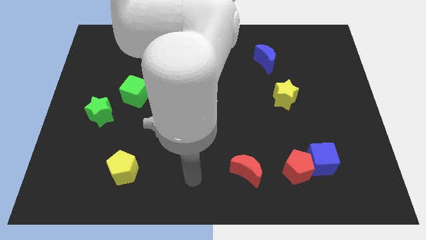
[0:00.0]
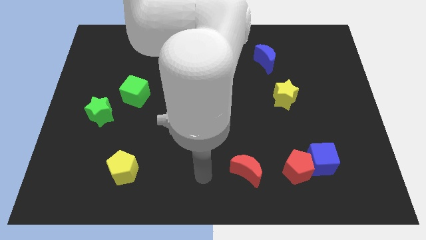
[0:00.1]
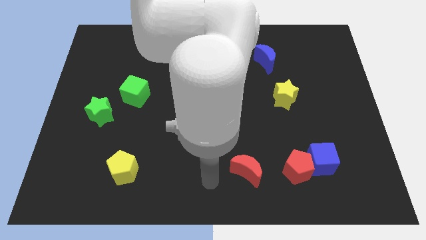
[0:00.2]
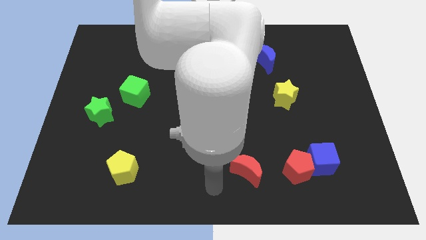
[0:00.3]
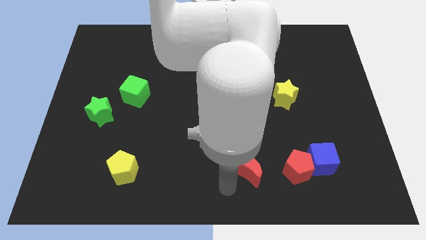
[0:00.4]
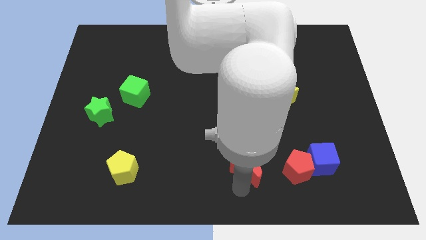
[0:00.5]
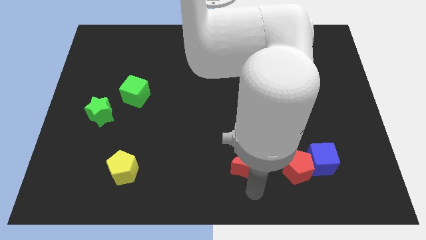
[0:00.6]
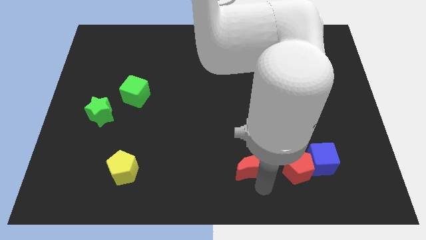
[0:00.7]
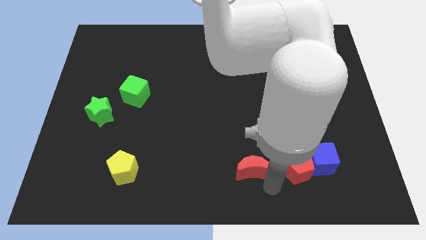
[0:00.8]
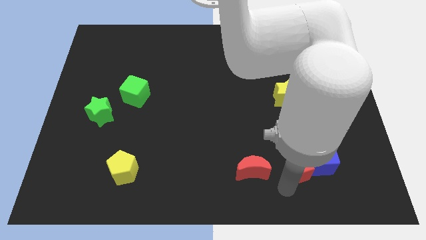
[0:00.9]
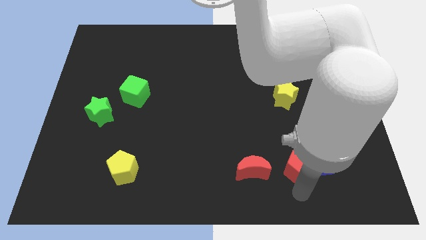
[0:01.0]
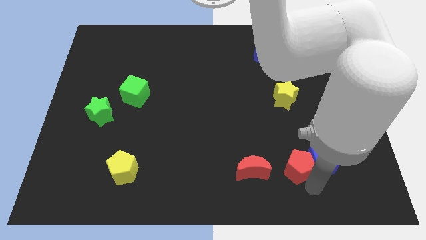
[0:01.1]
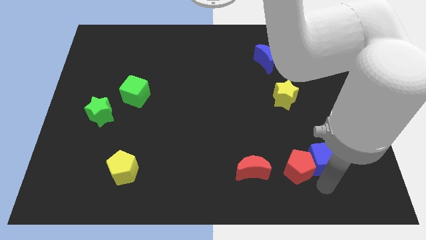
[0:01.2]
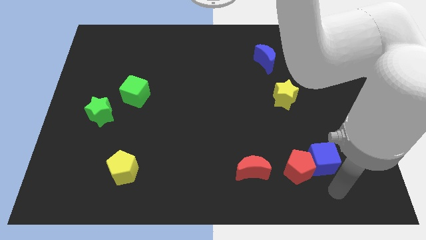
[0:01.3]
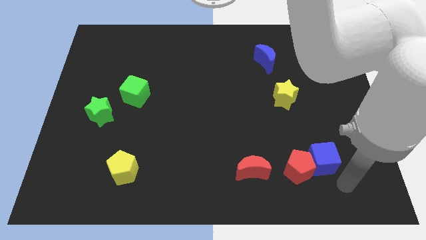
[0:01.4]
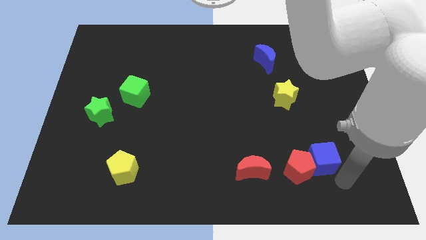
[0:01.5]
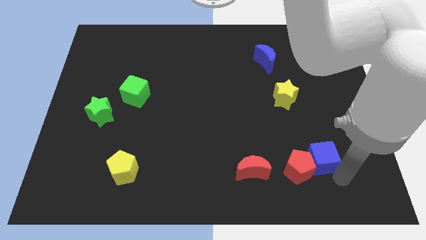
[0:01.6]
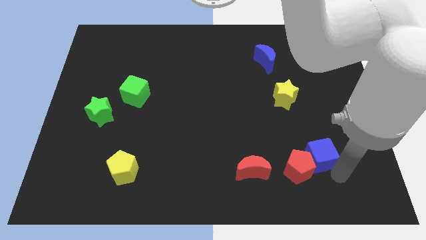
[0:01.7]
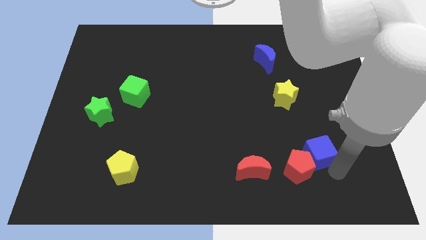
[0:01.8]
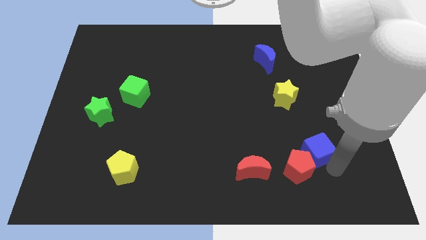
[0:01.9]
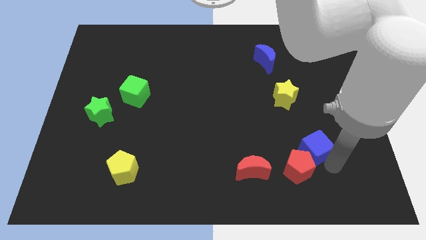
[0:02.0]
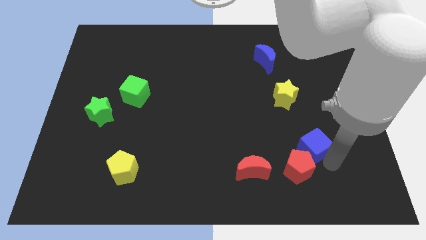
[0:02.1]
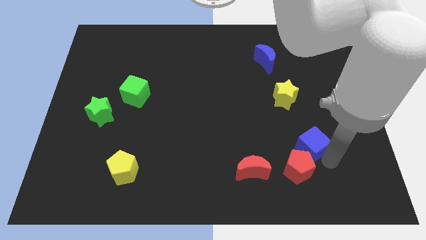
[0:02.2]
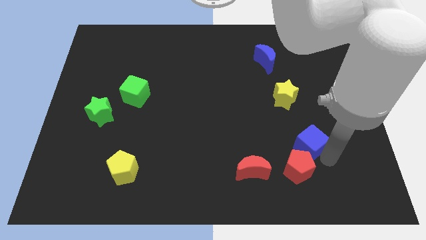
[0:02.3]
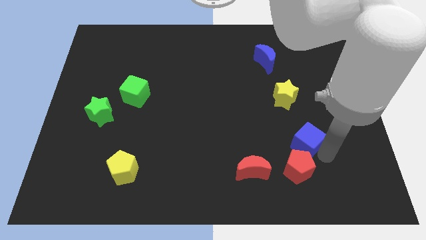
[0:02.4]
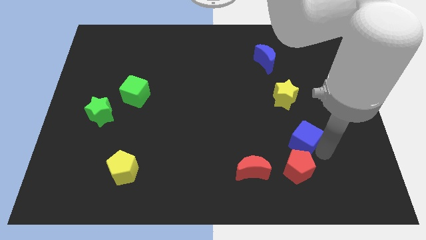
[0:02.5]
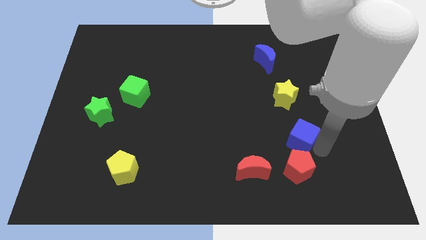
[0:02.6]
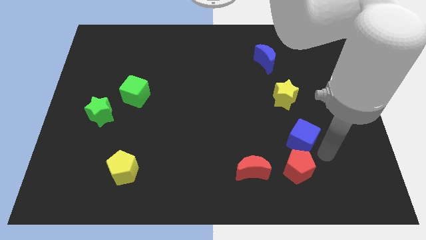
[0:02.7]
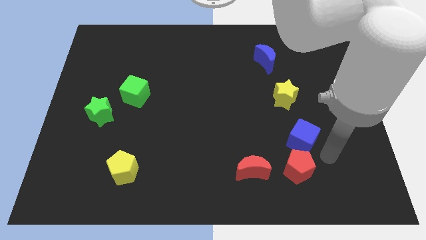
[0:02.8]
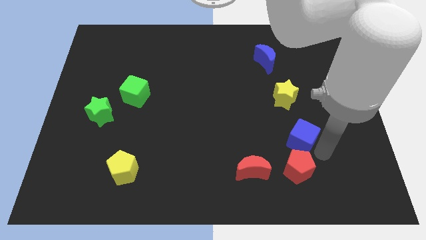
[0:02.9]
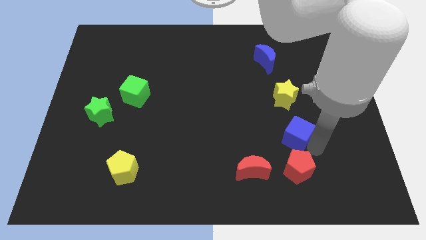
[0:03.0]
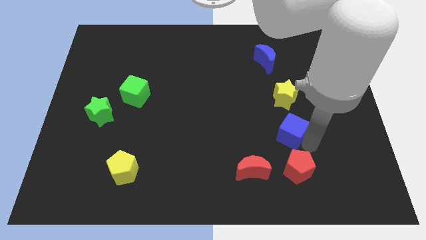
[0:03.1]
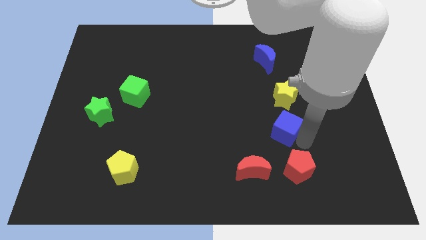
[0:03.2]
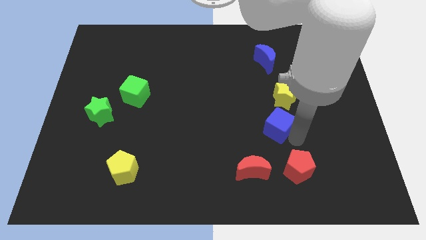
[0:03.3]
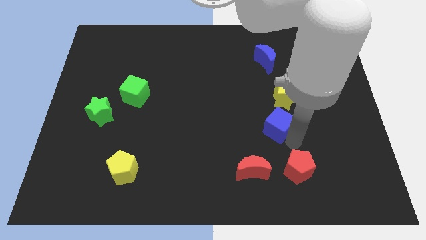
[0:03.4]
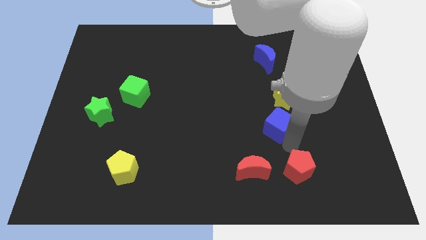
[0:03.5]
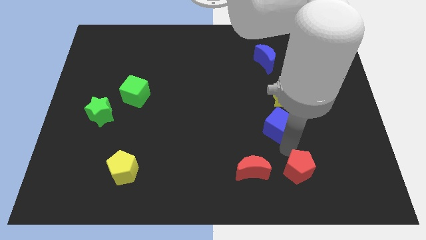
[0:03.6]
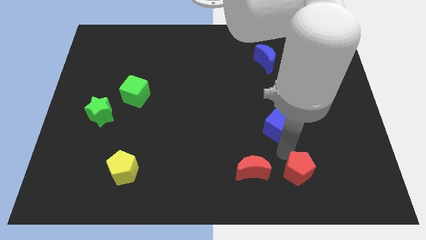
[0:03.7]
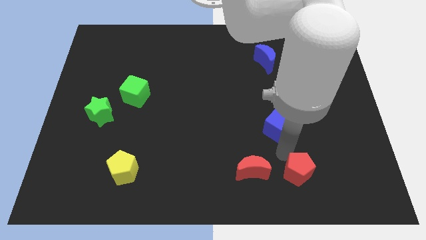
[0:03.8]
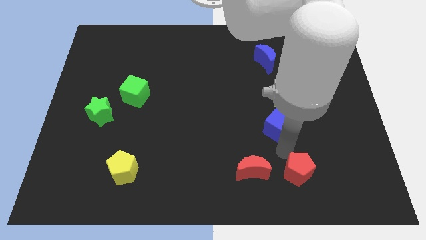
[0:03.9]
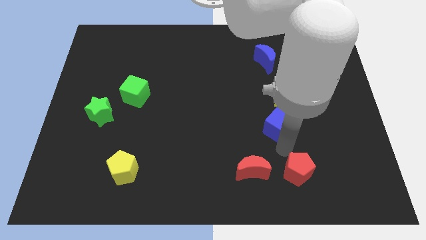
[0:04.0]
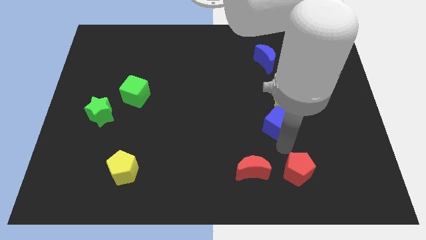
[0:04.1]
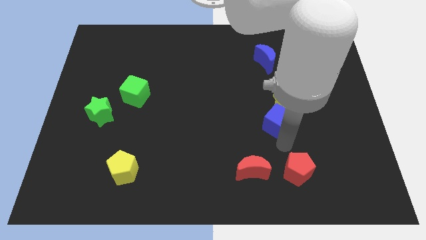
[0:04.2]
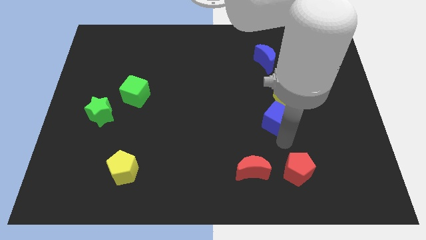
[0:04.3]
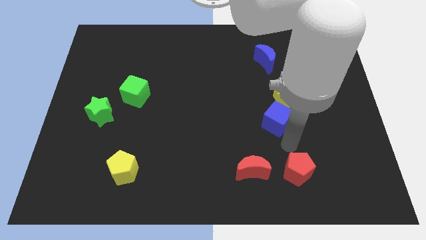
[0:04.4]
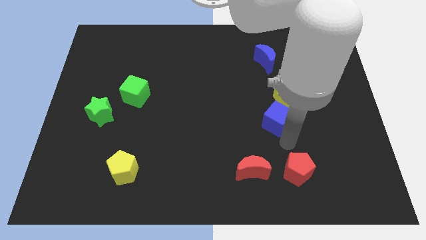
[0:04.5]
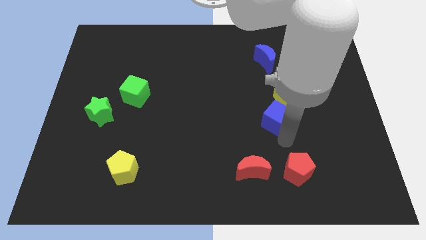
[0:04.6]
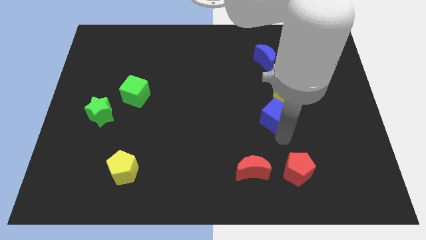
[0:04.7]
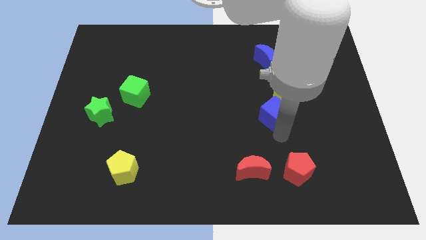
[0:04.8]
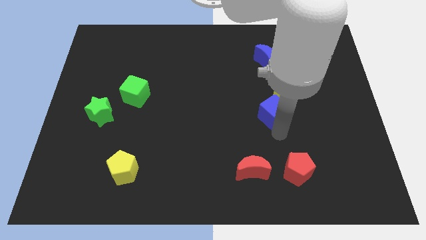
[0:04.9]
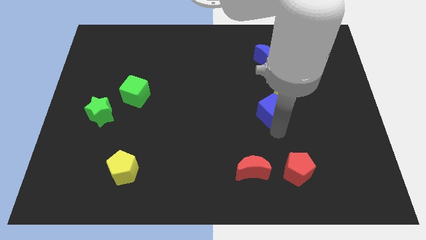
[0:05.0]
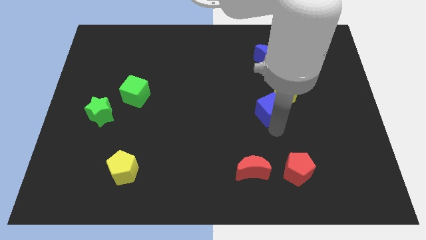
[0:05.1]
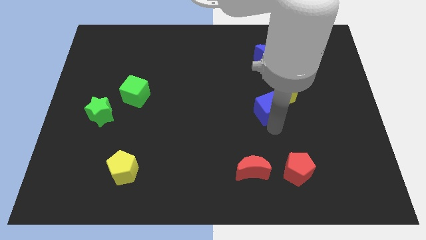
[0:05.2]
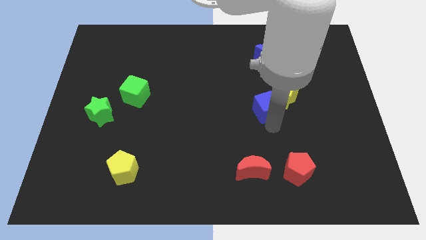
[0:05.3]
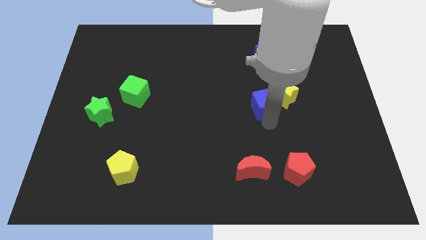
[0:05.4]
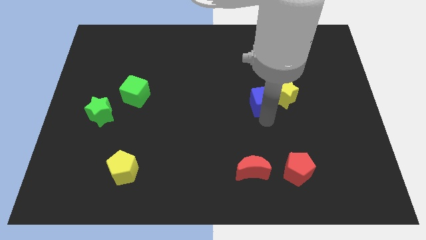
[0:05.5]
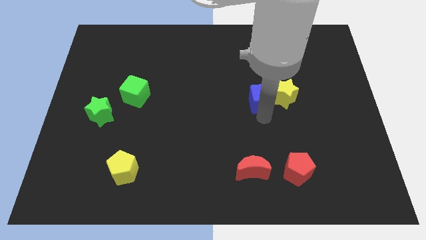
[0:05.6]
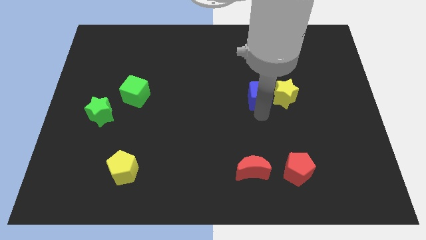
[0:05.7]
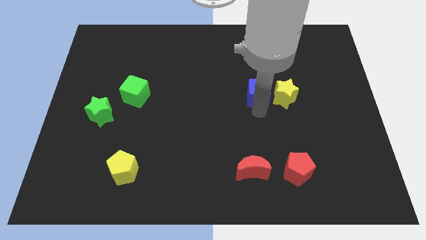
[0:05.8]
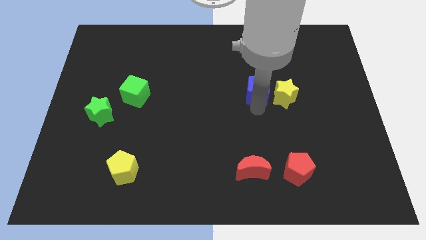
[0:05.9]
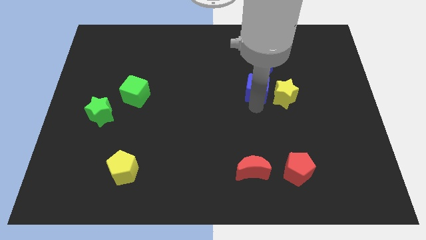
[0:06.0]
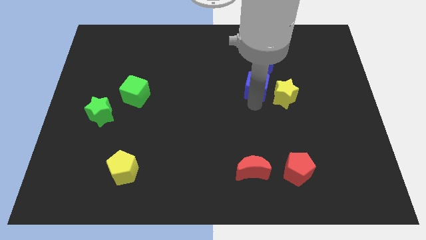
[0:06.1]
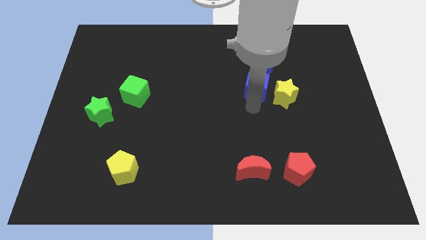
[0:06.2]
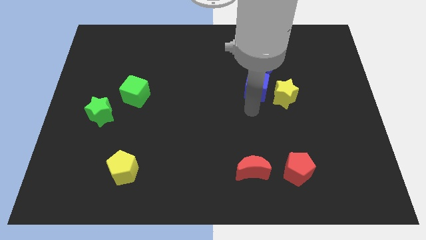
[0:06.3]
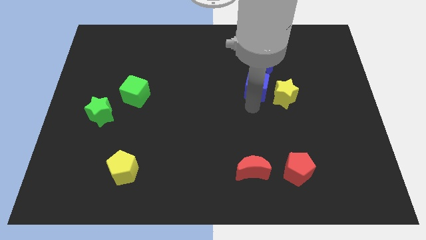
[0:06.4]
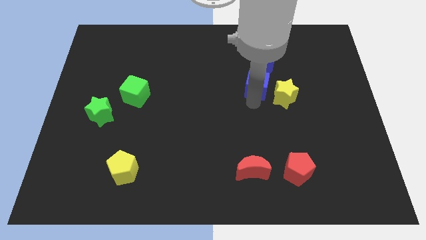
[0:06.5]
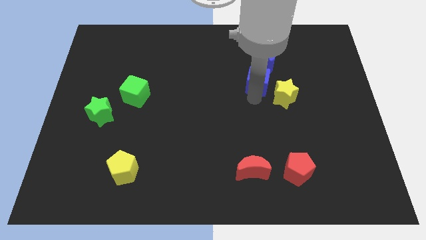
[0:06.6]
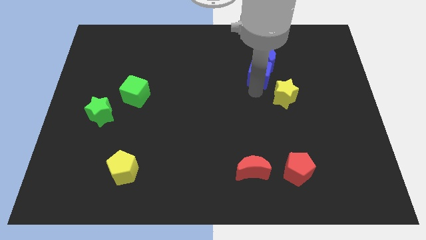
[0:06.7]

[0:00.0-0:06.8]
push the blue cube next to the blue moon

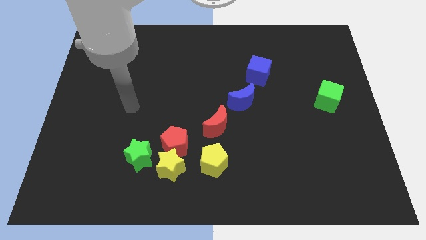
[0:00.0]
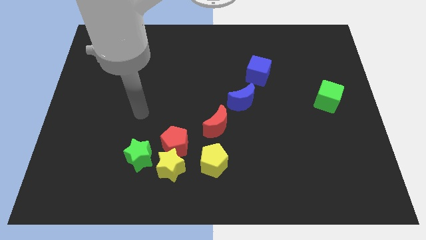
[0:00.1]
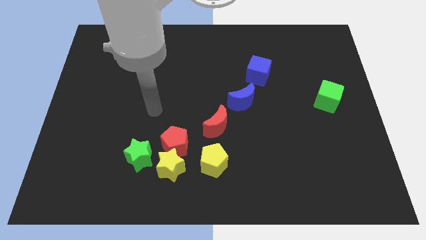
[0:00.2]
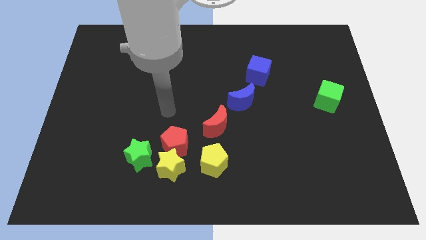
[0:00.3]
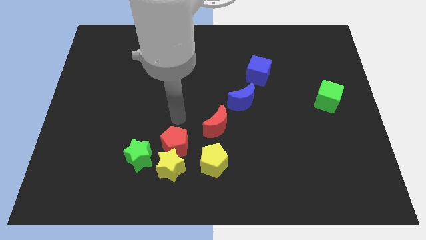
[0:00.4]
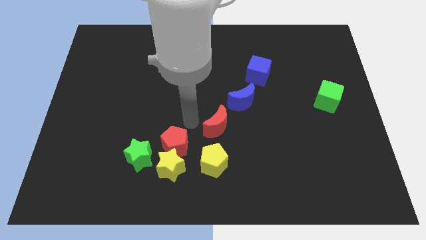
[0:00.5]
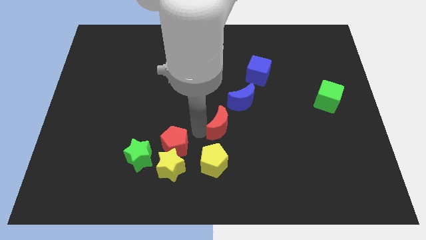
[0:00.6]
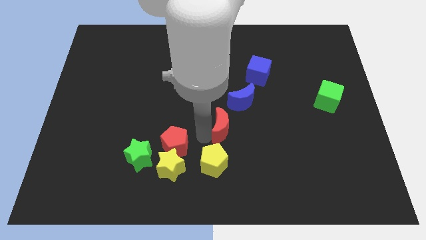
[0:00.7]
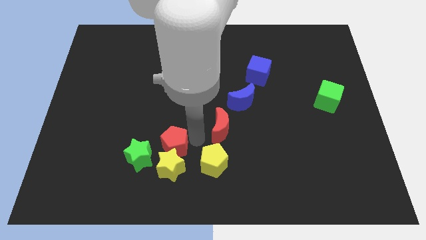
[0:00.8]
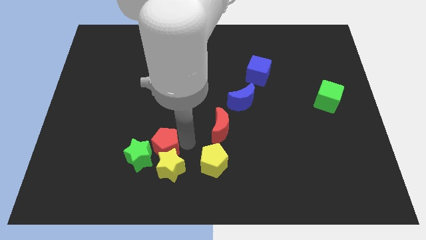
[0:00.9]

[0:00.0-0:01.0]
move the red pentagon close to the green star
